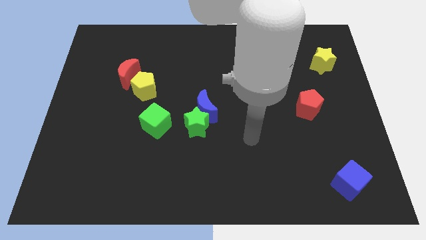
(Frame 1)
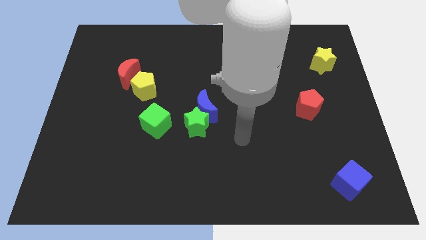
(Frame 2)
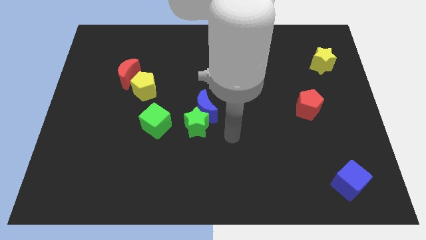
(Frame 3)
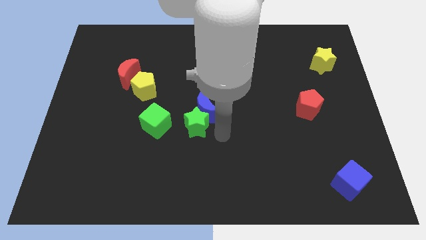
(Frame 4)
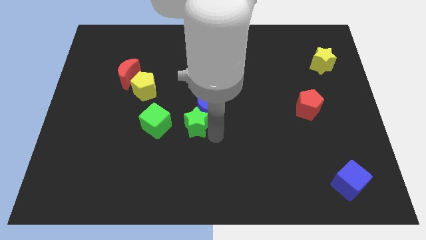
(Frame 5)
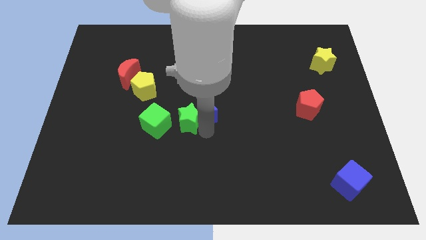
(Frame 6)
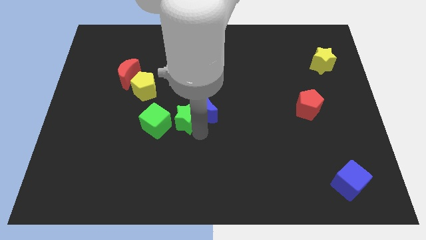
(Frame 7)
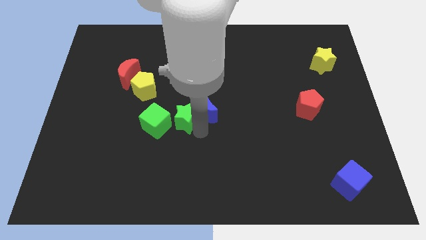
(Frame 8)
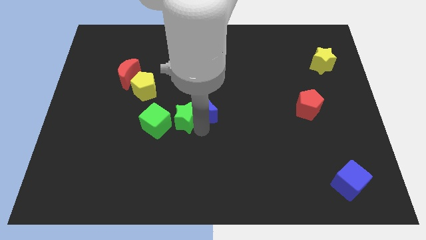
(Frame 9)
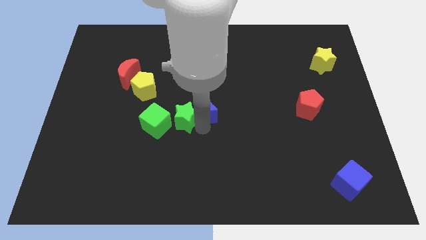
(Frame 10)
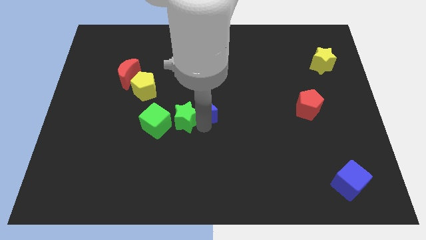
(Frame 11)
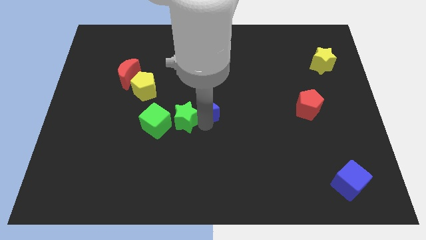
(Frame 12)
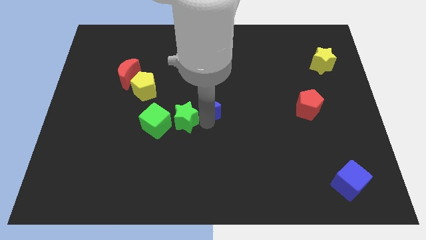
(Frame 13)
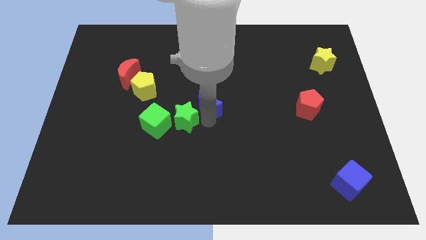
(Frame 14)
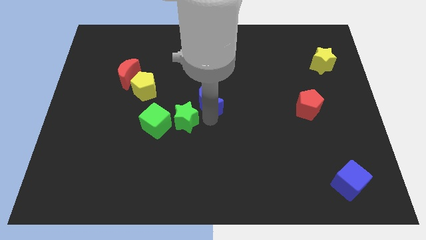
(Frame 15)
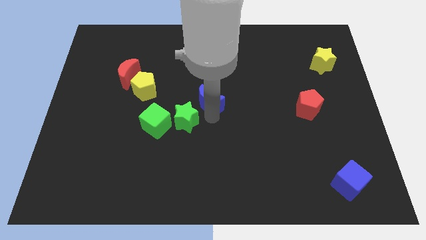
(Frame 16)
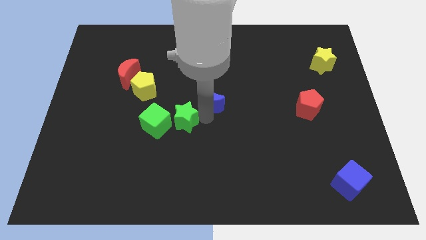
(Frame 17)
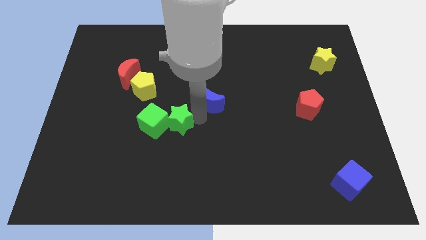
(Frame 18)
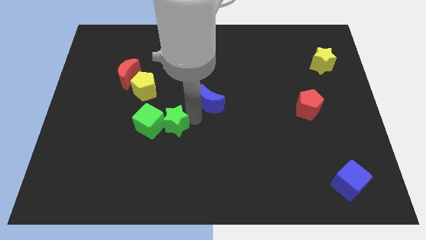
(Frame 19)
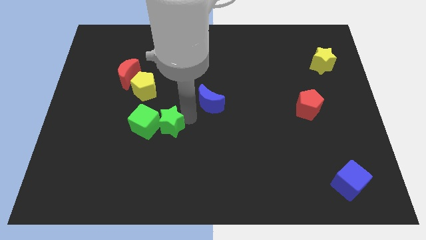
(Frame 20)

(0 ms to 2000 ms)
move the blue moon away from the green star

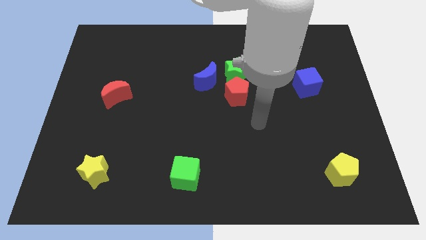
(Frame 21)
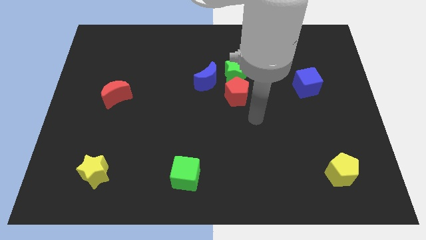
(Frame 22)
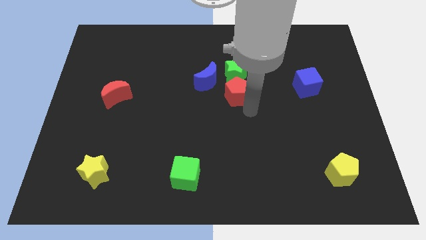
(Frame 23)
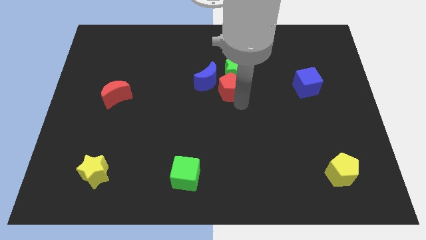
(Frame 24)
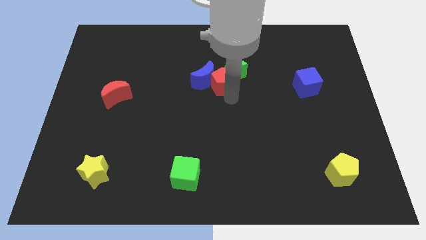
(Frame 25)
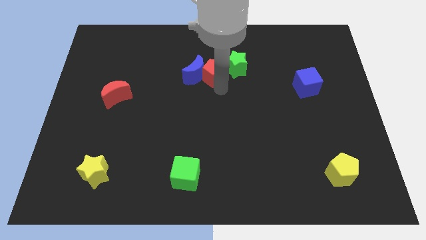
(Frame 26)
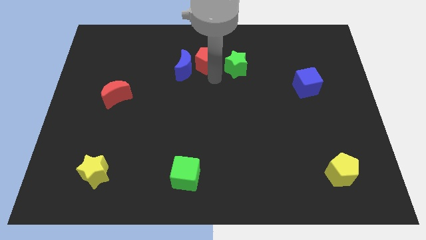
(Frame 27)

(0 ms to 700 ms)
move the green star away from the red pentagon and blue moon

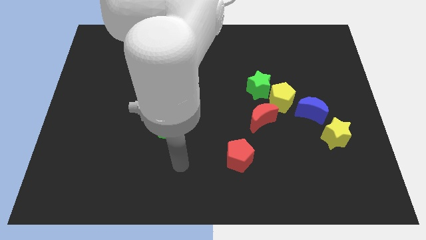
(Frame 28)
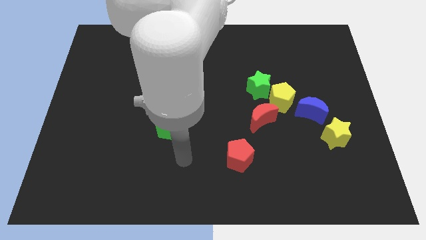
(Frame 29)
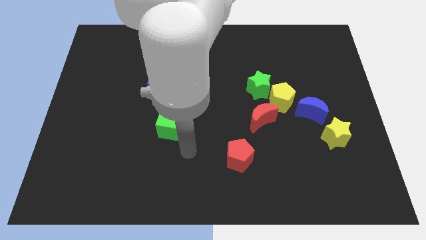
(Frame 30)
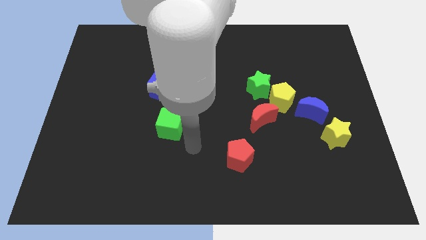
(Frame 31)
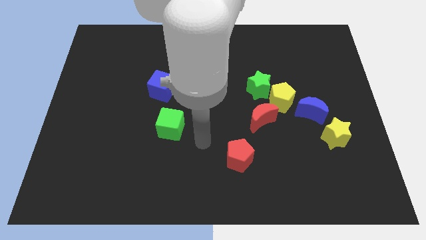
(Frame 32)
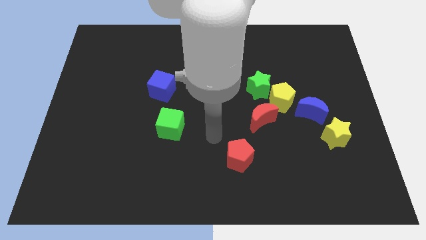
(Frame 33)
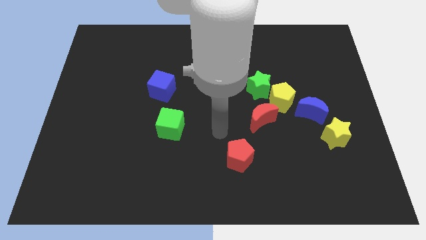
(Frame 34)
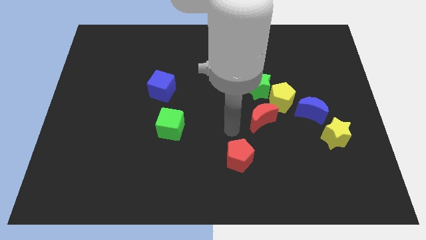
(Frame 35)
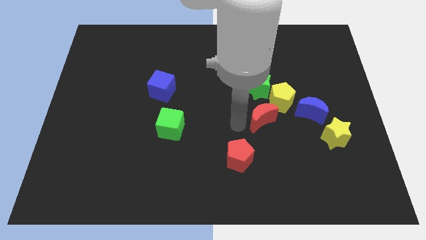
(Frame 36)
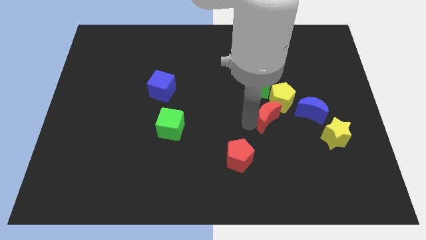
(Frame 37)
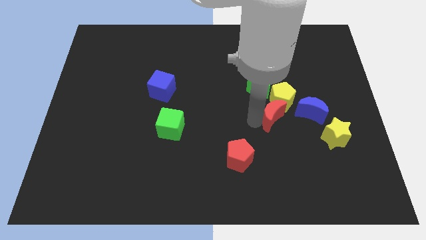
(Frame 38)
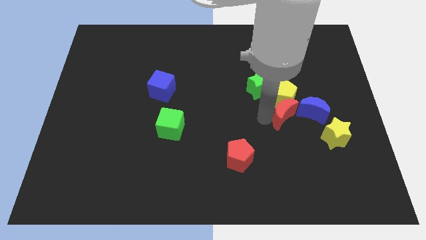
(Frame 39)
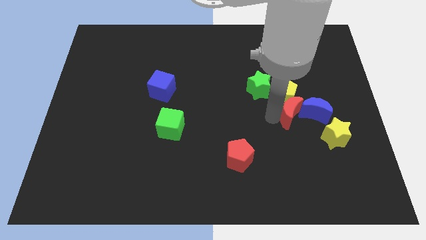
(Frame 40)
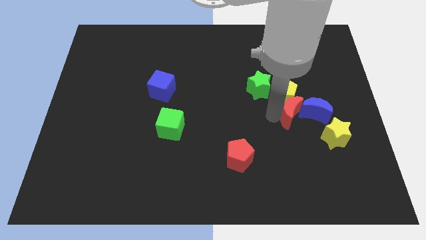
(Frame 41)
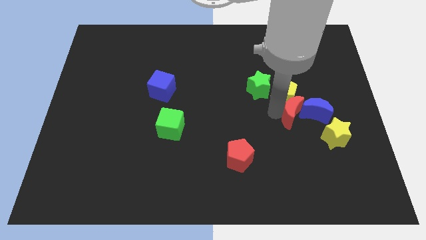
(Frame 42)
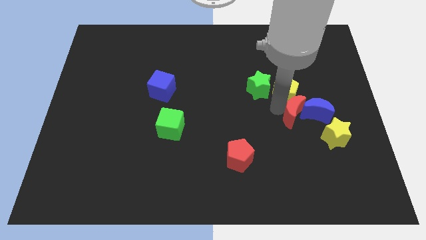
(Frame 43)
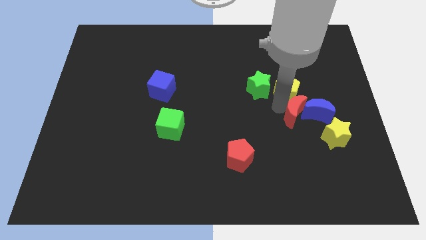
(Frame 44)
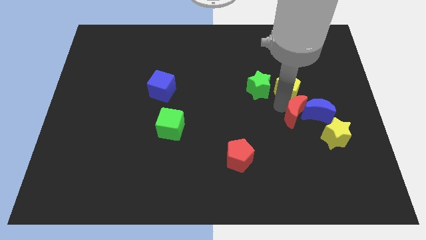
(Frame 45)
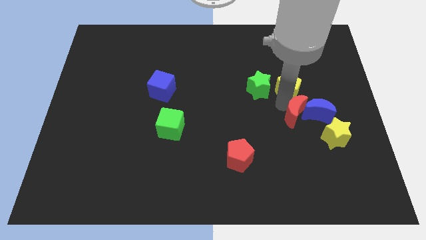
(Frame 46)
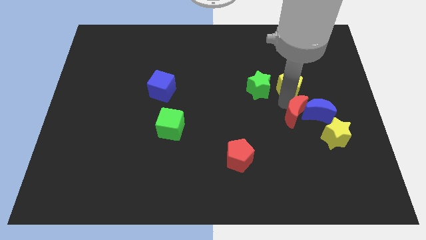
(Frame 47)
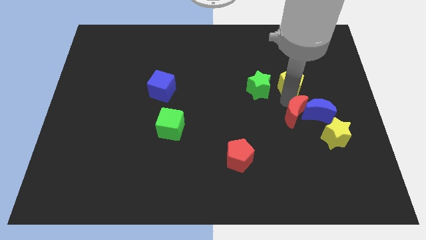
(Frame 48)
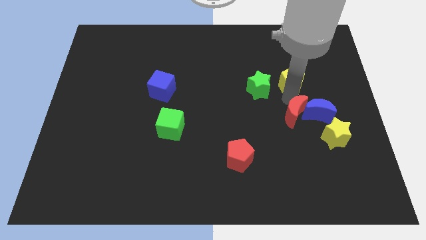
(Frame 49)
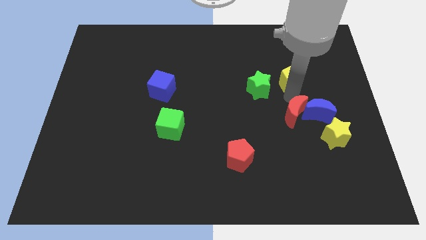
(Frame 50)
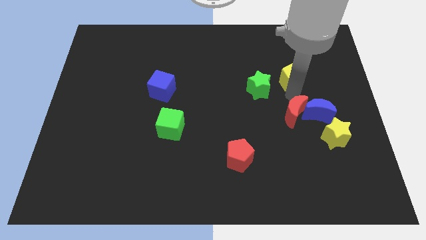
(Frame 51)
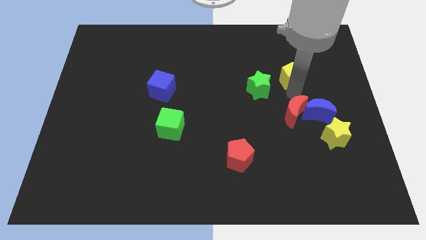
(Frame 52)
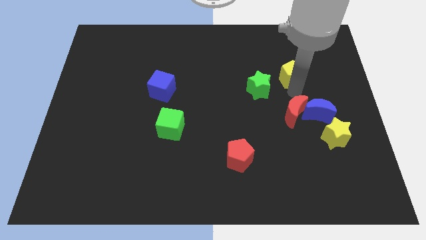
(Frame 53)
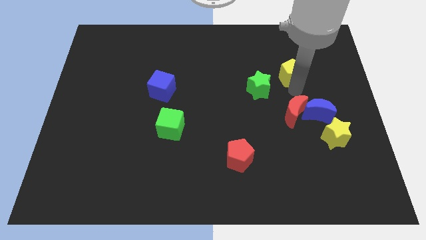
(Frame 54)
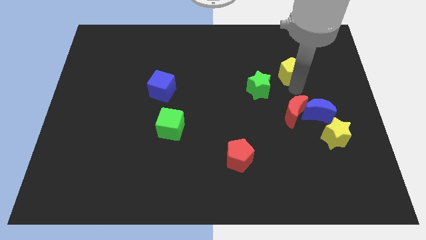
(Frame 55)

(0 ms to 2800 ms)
move the yellow pentagon away from the group of blocks

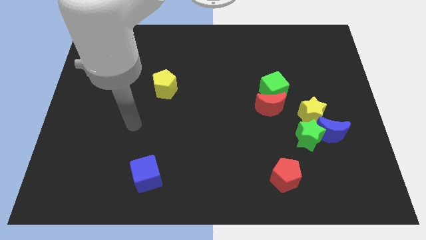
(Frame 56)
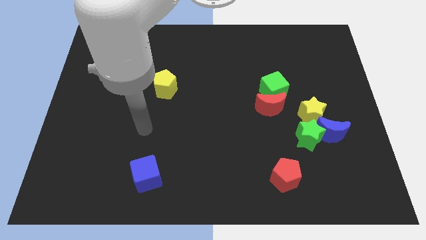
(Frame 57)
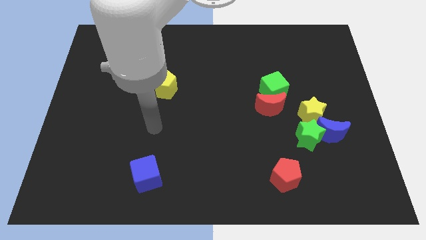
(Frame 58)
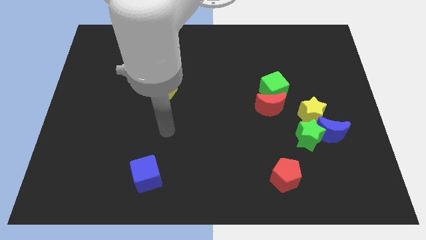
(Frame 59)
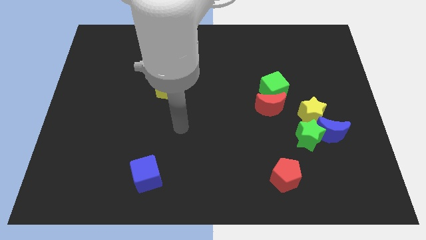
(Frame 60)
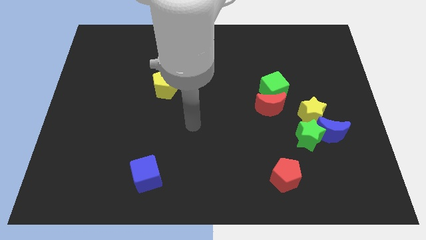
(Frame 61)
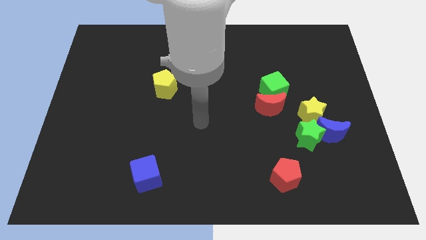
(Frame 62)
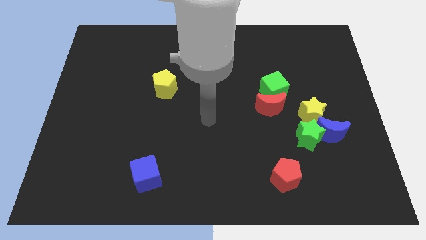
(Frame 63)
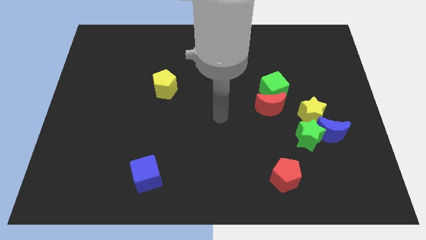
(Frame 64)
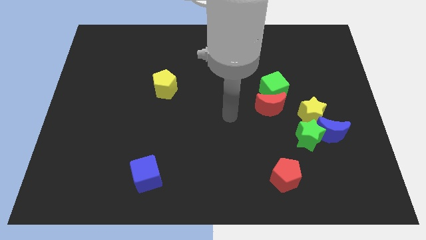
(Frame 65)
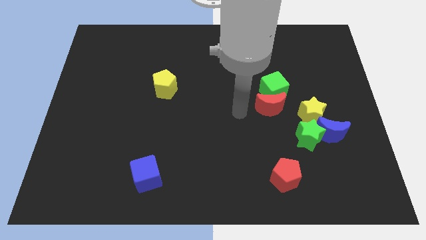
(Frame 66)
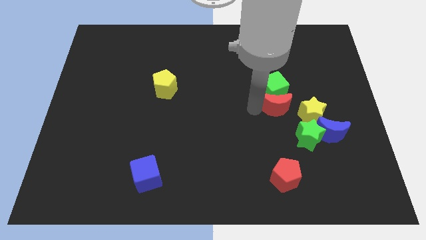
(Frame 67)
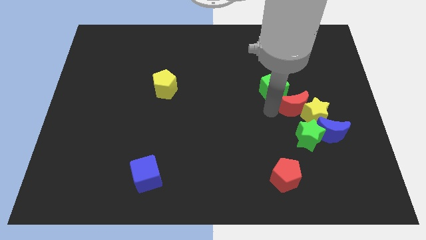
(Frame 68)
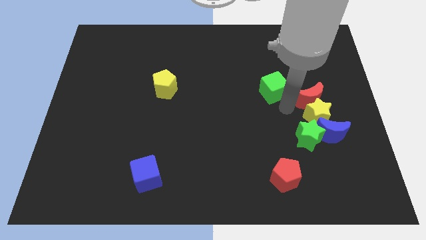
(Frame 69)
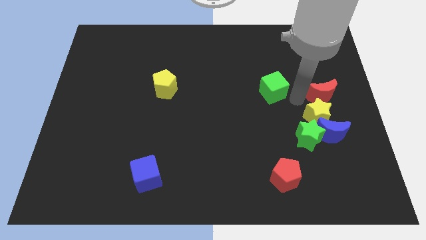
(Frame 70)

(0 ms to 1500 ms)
separate the green cube from the red moon

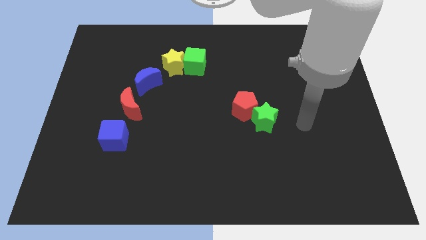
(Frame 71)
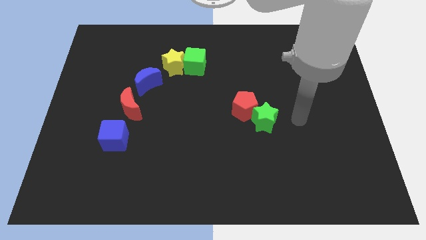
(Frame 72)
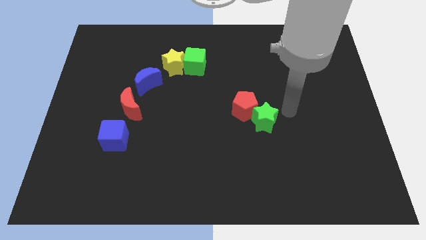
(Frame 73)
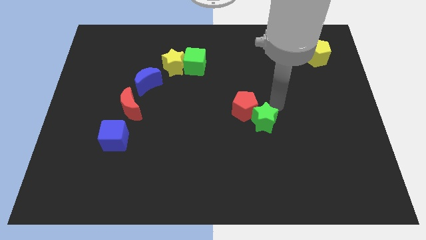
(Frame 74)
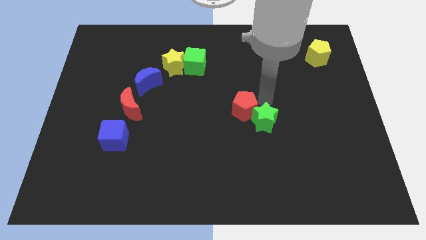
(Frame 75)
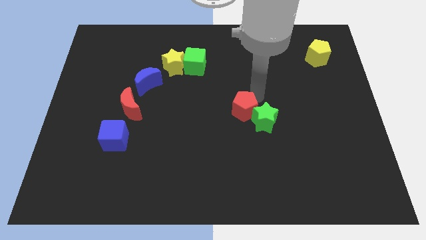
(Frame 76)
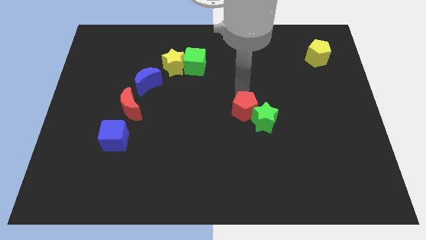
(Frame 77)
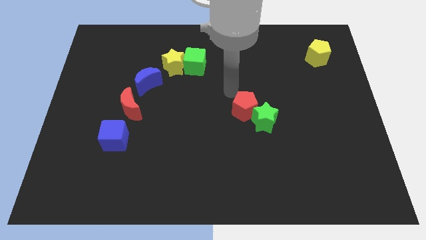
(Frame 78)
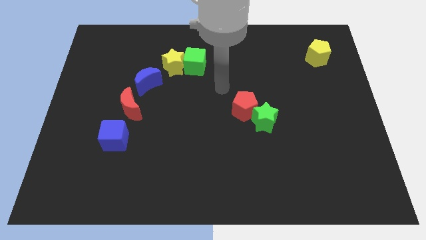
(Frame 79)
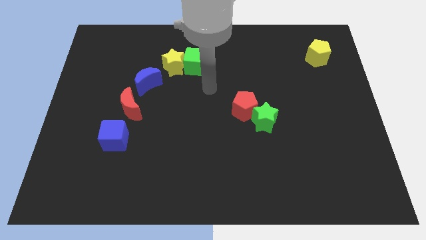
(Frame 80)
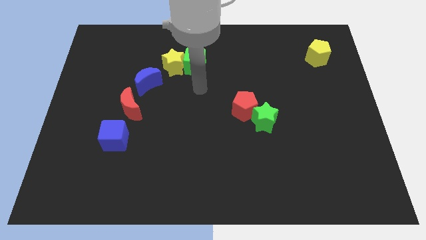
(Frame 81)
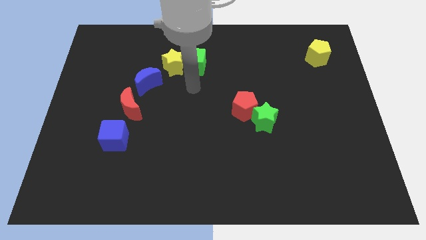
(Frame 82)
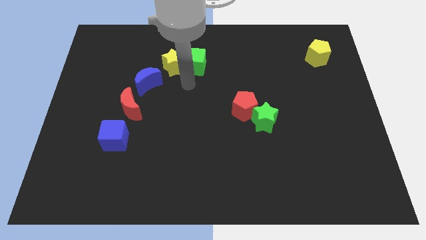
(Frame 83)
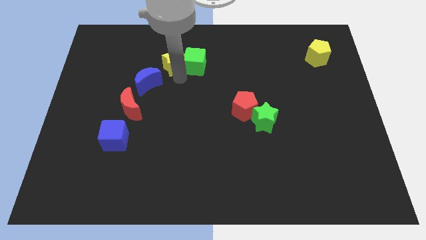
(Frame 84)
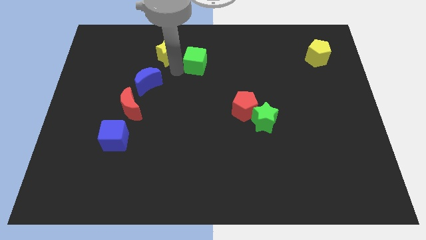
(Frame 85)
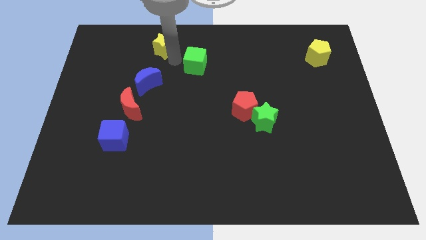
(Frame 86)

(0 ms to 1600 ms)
pull the green cube apart from the yellow star

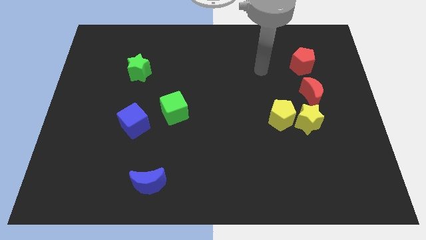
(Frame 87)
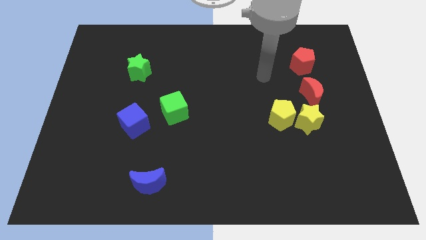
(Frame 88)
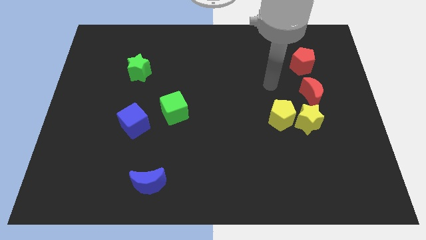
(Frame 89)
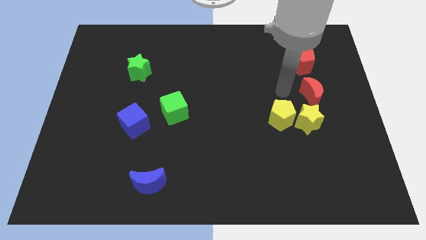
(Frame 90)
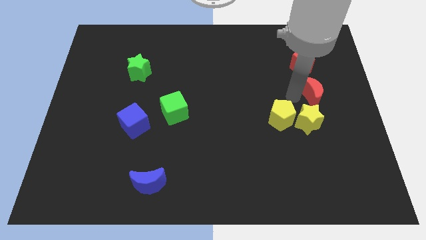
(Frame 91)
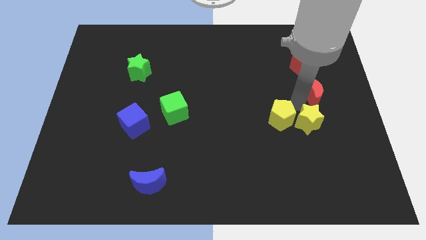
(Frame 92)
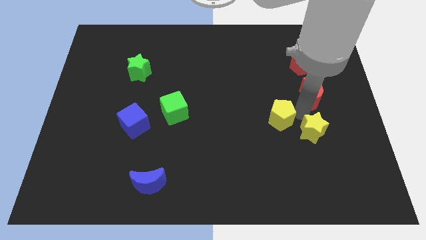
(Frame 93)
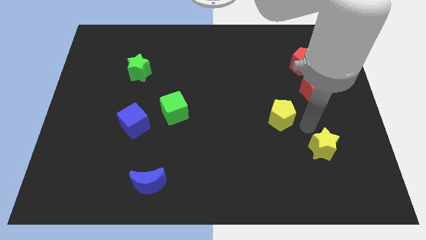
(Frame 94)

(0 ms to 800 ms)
move the yellow pentagon away from the yellow star
